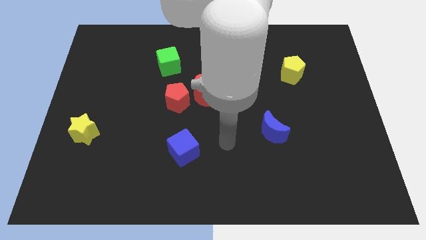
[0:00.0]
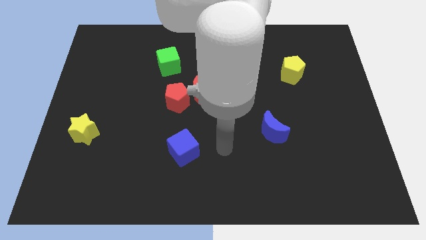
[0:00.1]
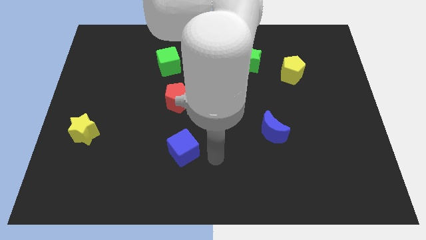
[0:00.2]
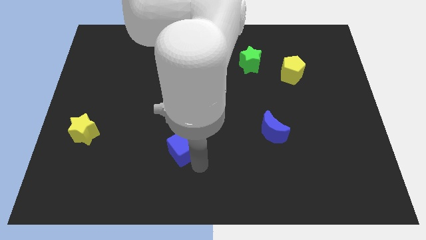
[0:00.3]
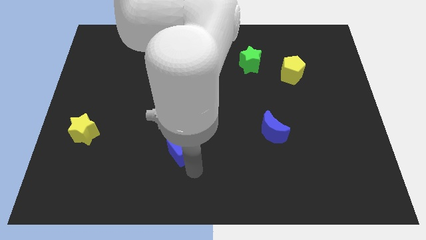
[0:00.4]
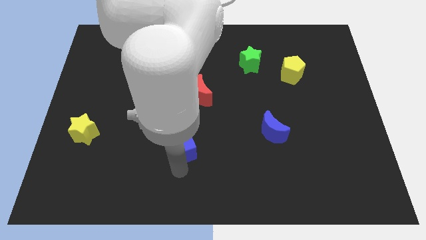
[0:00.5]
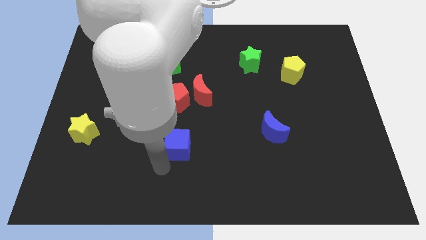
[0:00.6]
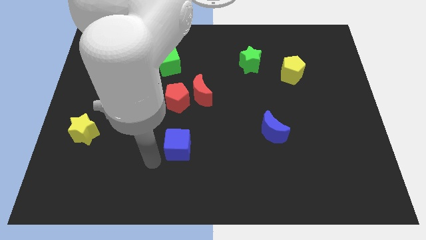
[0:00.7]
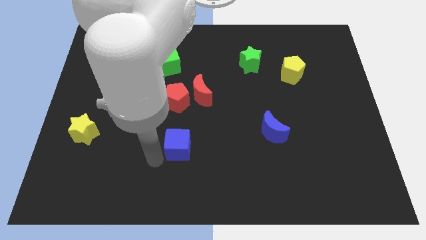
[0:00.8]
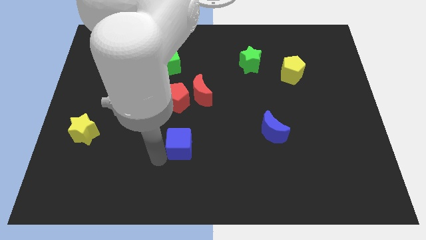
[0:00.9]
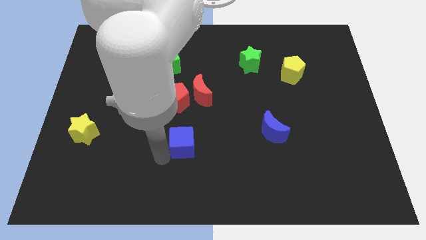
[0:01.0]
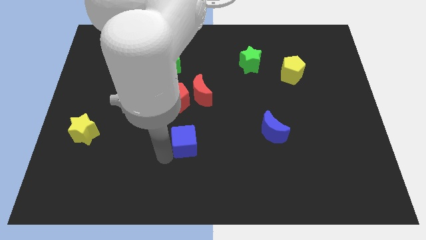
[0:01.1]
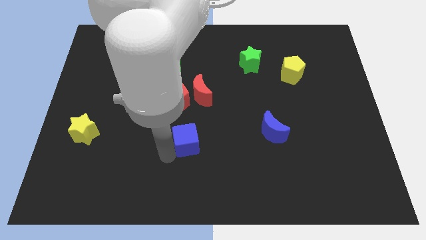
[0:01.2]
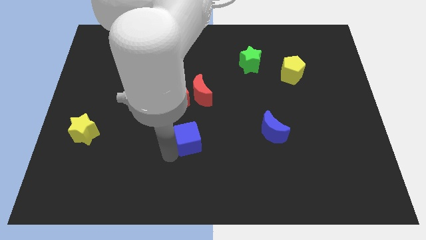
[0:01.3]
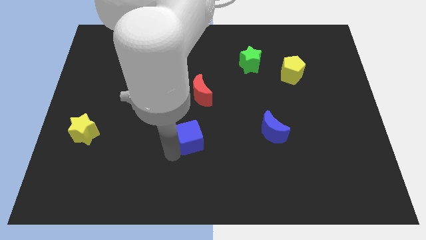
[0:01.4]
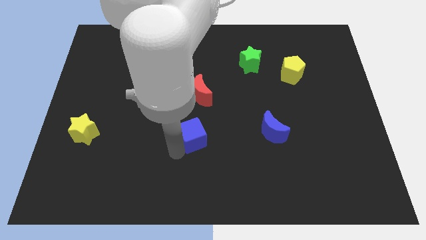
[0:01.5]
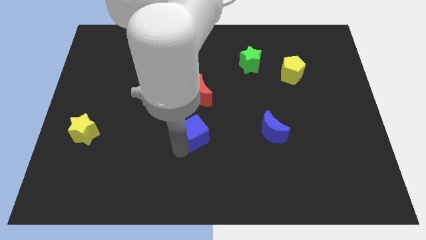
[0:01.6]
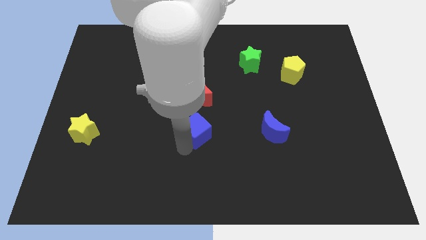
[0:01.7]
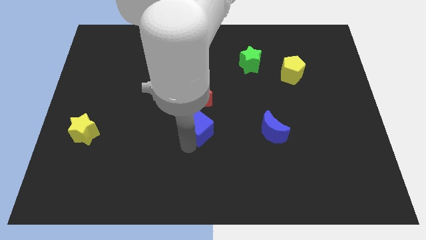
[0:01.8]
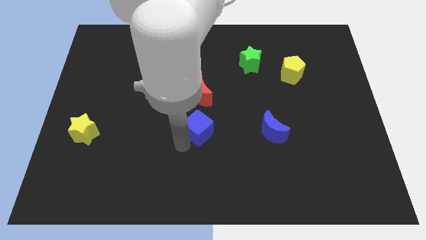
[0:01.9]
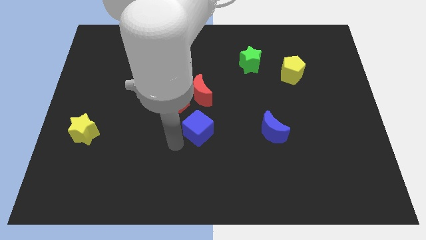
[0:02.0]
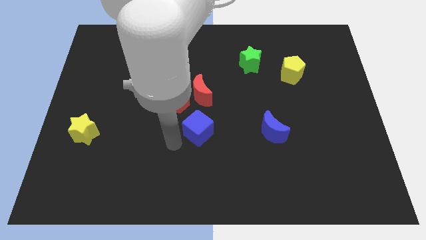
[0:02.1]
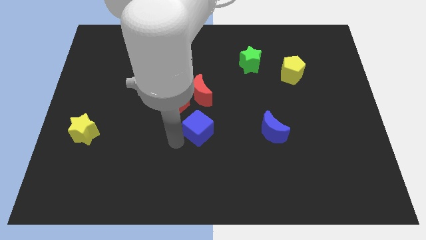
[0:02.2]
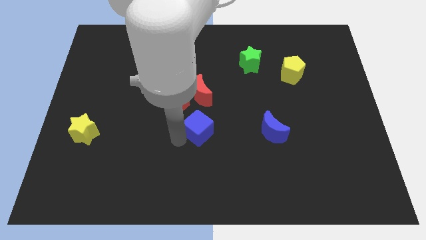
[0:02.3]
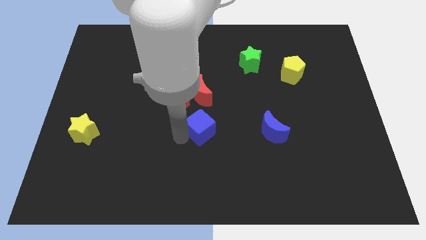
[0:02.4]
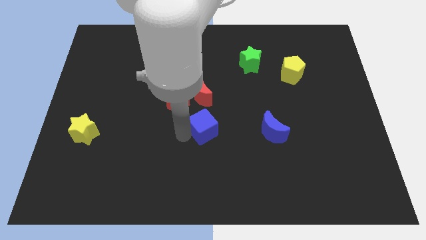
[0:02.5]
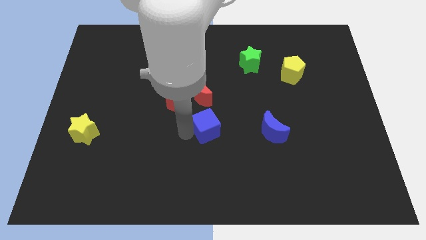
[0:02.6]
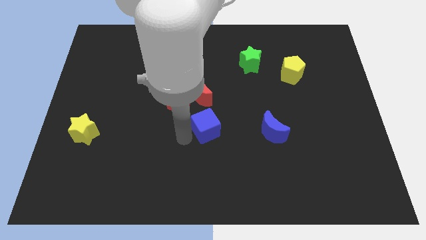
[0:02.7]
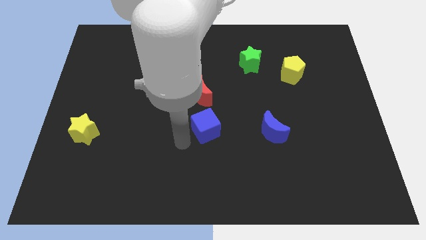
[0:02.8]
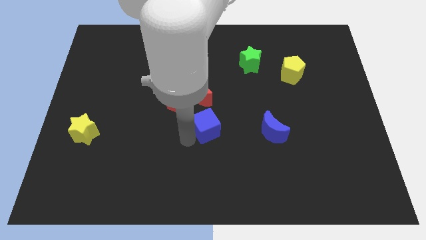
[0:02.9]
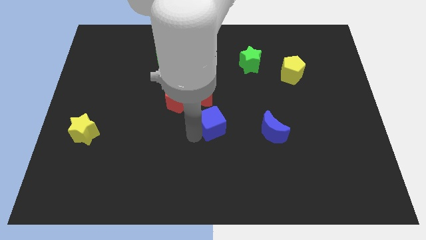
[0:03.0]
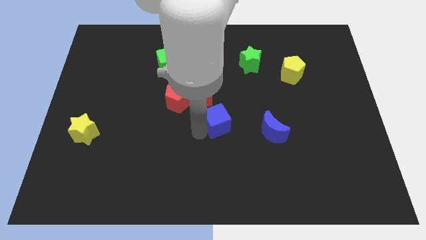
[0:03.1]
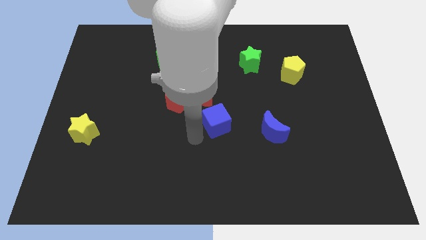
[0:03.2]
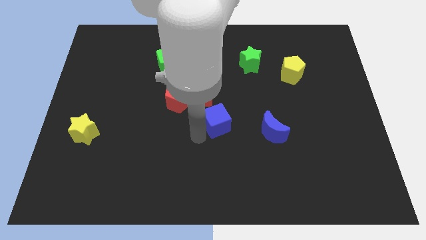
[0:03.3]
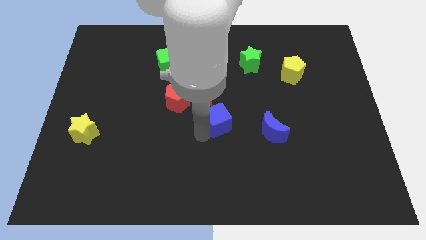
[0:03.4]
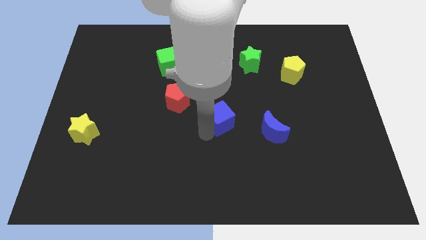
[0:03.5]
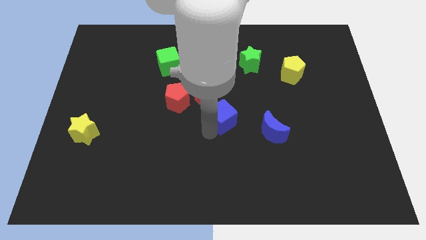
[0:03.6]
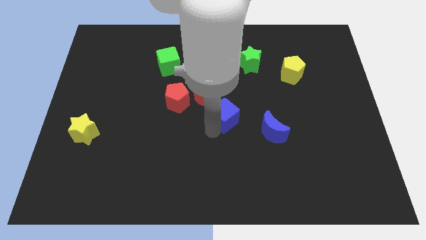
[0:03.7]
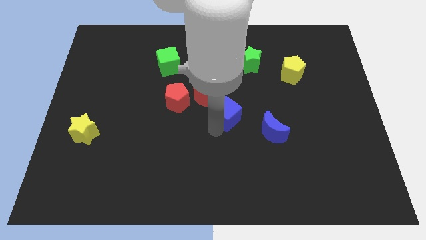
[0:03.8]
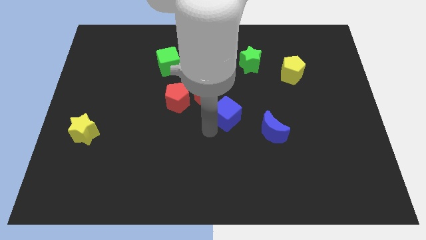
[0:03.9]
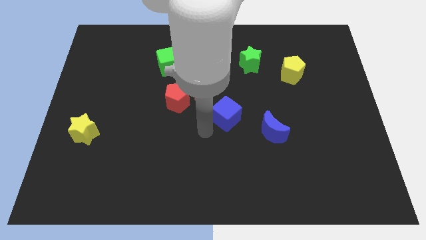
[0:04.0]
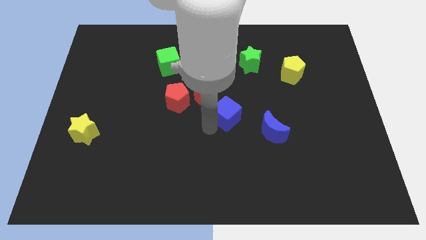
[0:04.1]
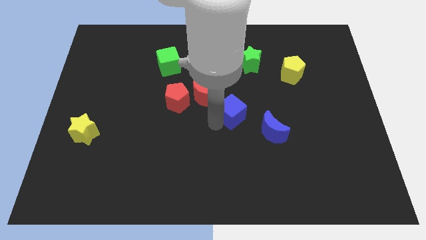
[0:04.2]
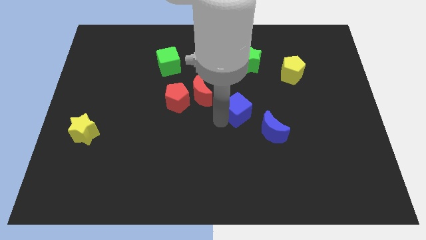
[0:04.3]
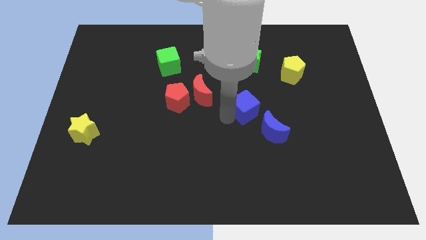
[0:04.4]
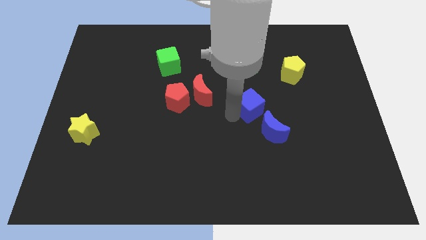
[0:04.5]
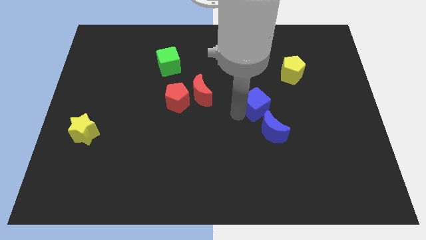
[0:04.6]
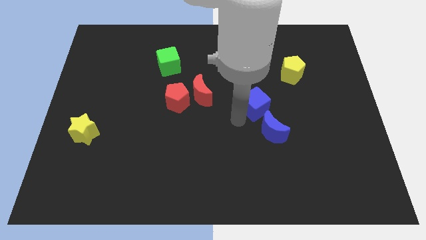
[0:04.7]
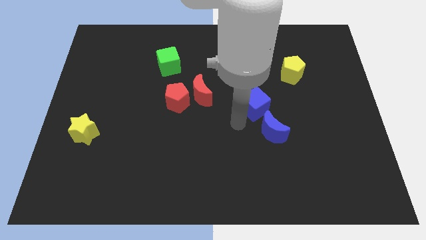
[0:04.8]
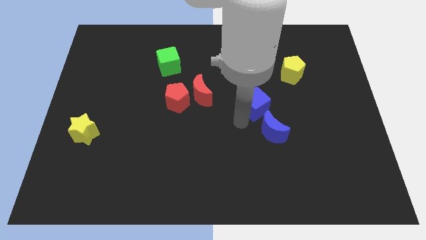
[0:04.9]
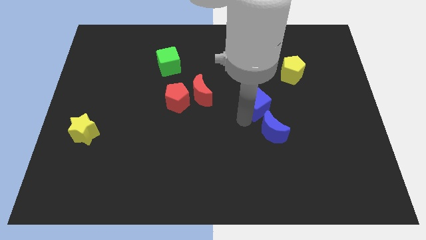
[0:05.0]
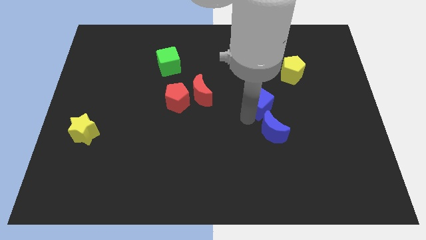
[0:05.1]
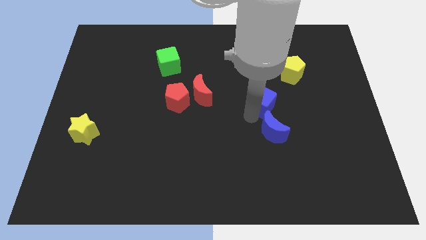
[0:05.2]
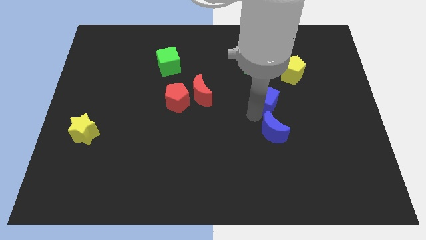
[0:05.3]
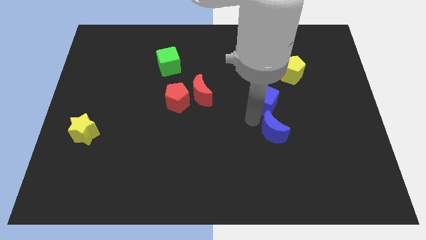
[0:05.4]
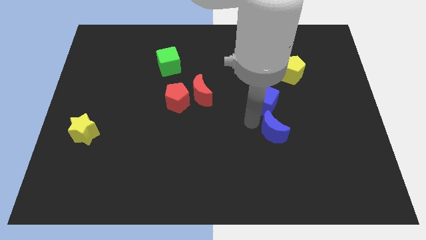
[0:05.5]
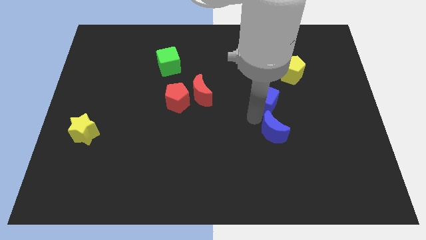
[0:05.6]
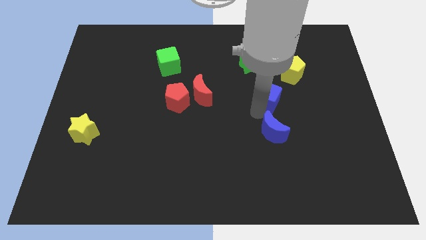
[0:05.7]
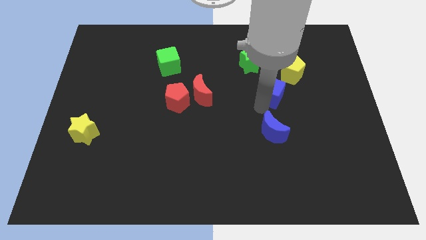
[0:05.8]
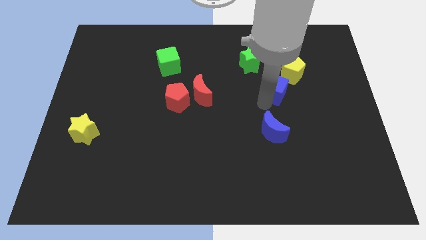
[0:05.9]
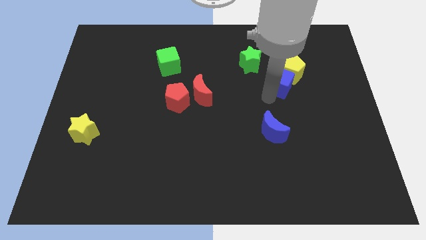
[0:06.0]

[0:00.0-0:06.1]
move the blue cube next to the yellow pentagon

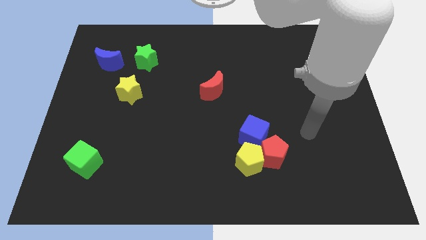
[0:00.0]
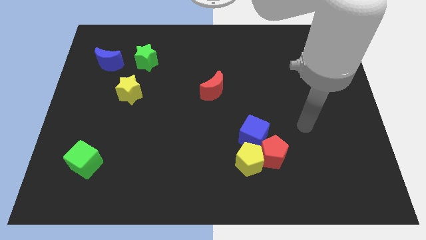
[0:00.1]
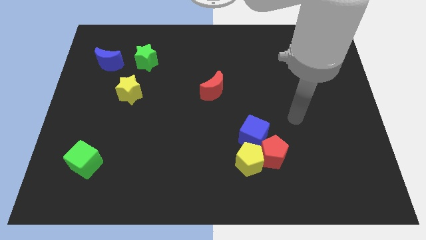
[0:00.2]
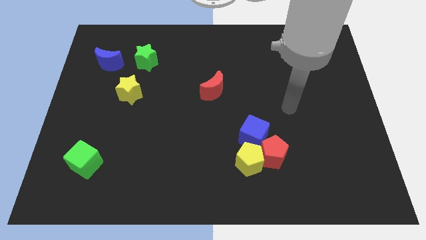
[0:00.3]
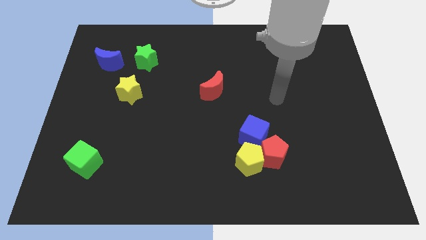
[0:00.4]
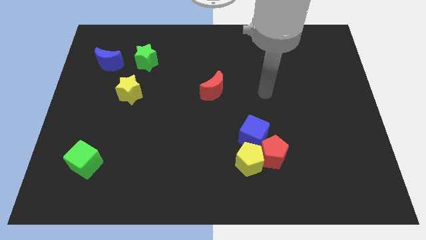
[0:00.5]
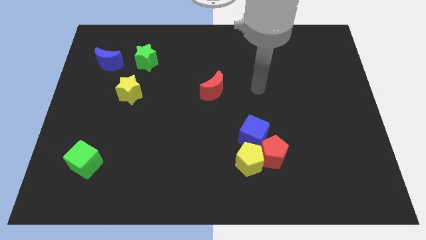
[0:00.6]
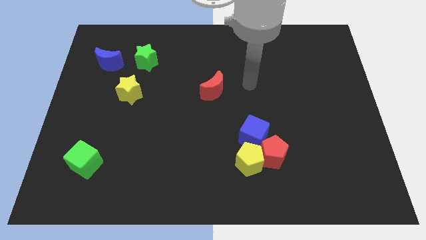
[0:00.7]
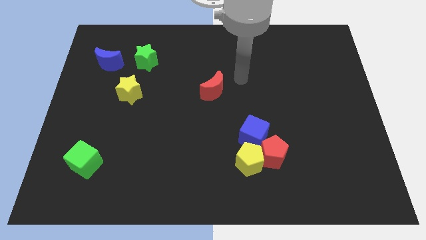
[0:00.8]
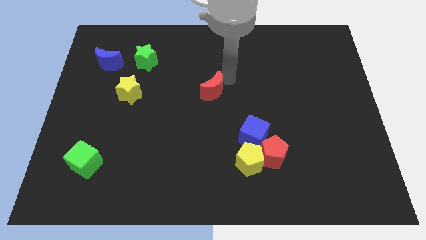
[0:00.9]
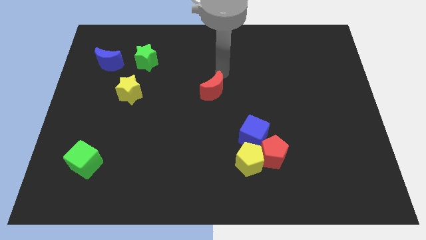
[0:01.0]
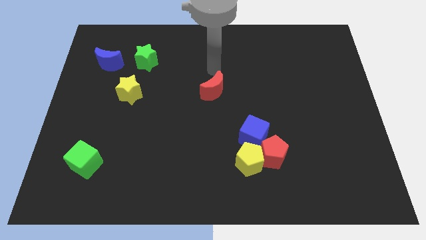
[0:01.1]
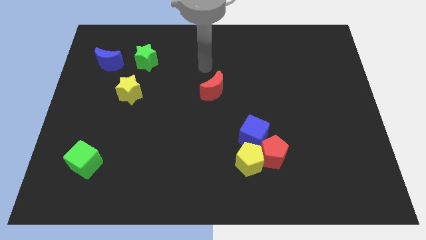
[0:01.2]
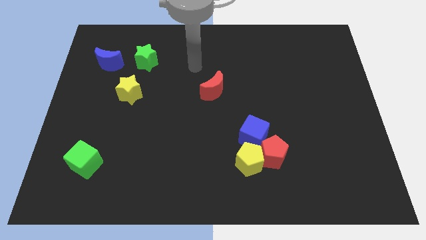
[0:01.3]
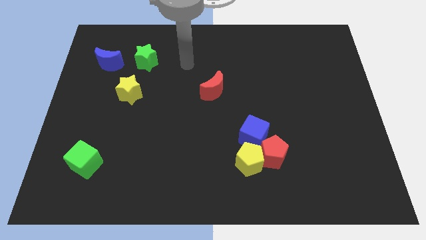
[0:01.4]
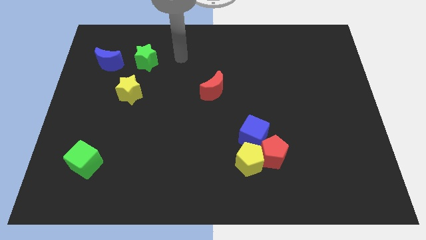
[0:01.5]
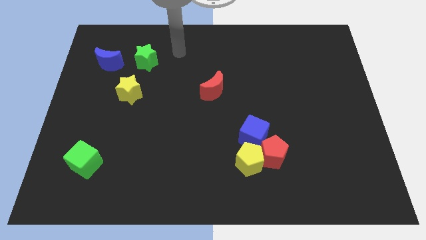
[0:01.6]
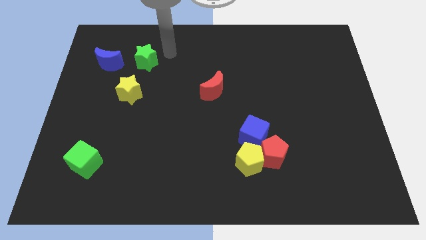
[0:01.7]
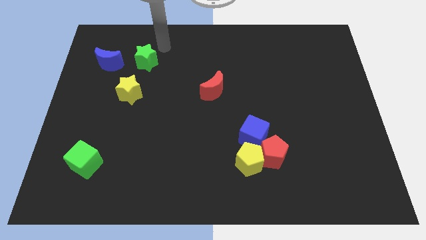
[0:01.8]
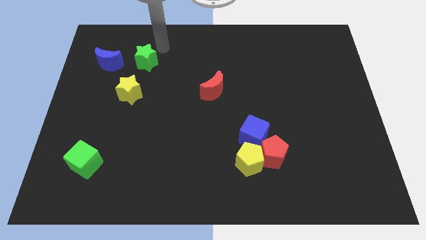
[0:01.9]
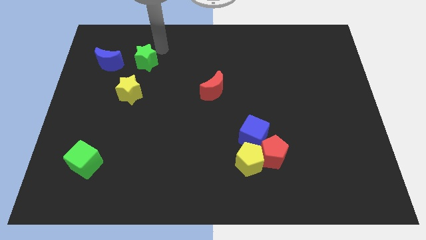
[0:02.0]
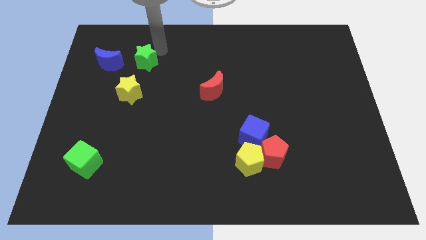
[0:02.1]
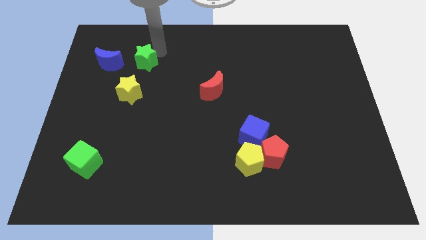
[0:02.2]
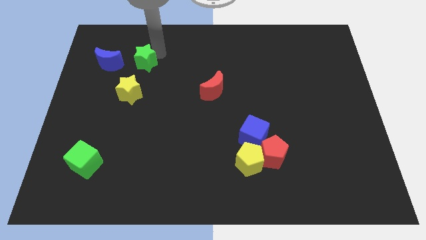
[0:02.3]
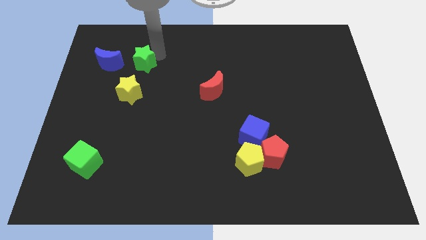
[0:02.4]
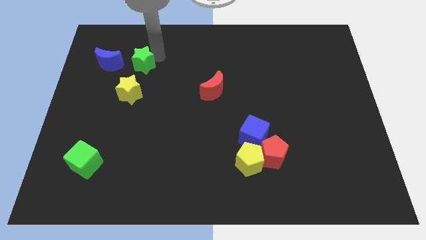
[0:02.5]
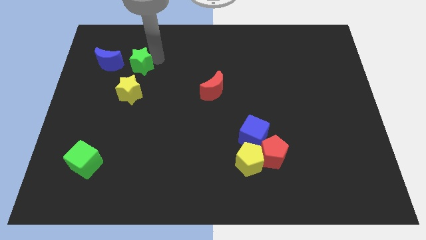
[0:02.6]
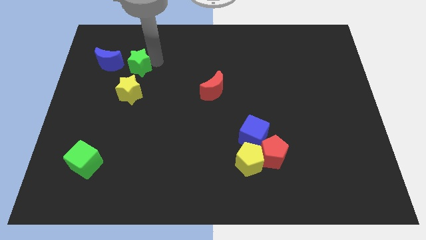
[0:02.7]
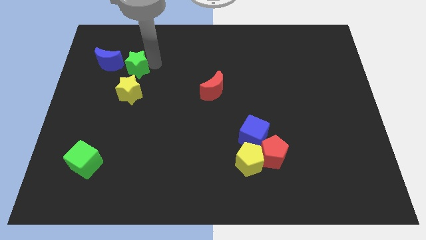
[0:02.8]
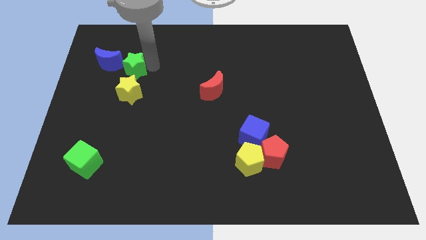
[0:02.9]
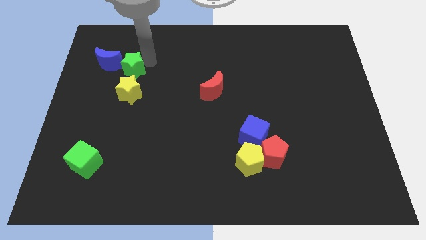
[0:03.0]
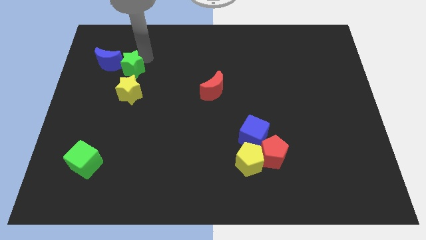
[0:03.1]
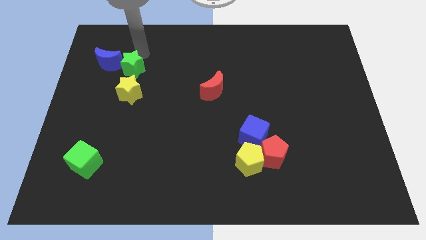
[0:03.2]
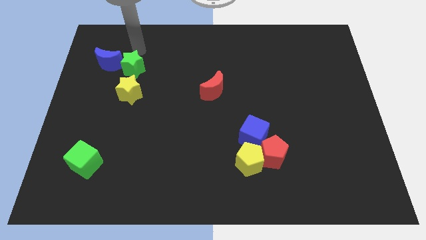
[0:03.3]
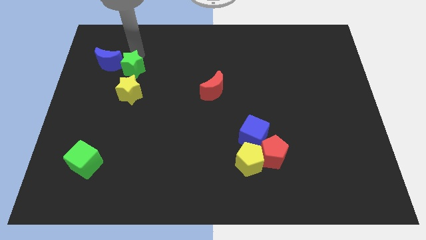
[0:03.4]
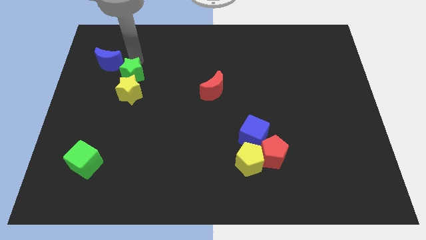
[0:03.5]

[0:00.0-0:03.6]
move the green star to the yellow star
